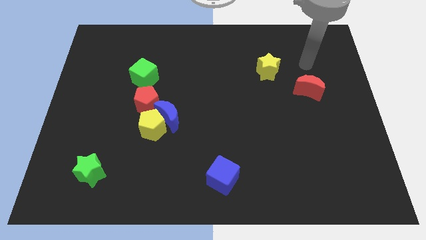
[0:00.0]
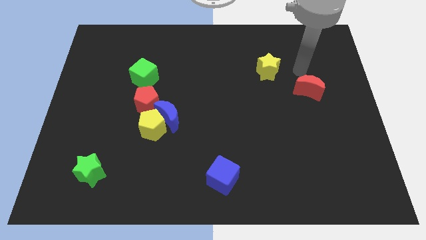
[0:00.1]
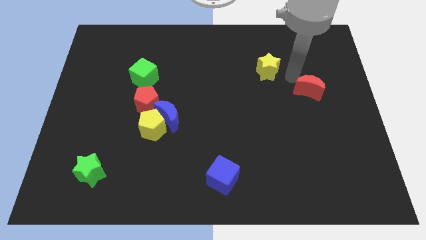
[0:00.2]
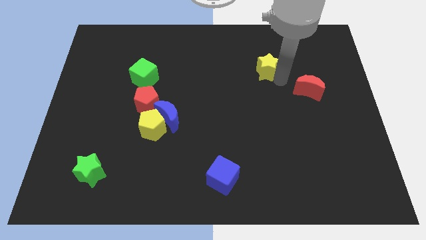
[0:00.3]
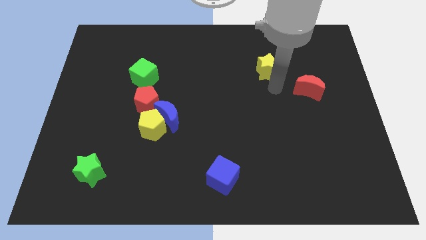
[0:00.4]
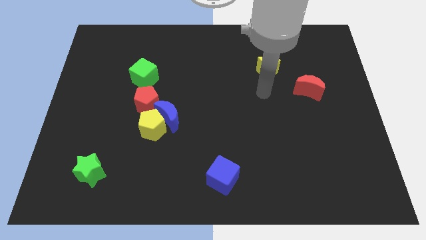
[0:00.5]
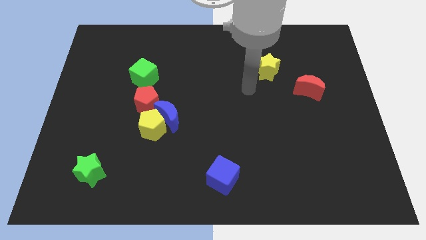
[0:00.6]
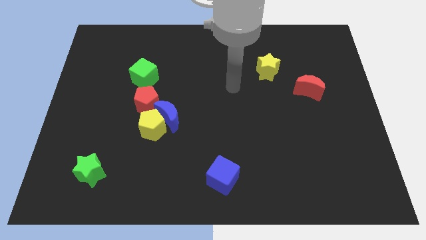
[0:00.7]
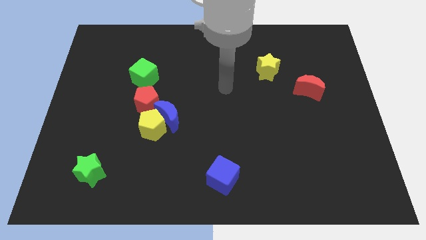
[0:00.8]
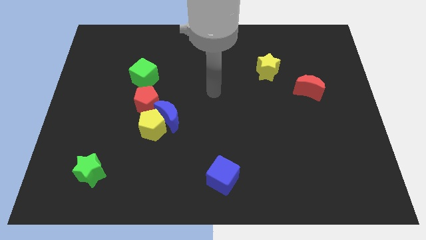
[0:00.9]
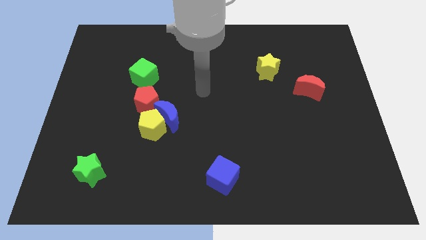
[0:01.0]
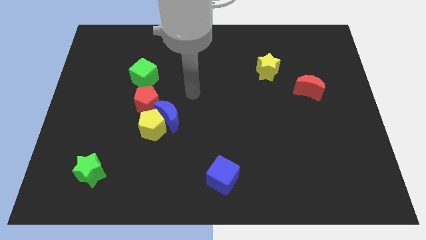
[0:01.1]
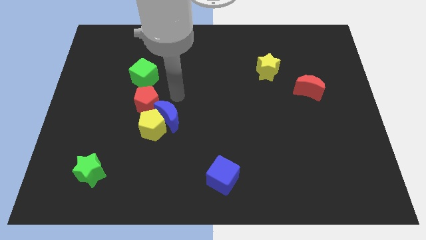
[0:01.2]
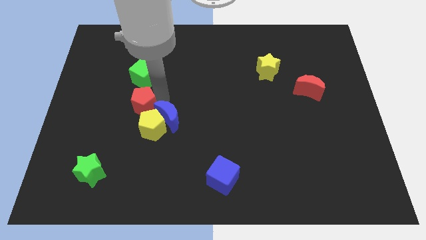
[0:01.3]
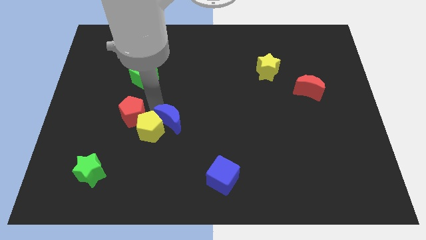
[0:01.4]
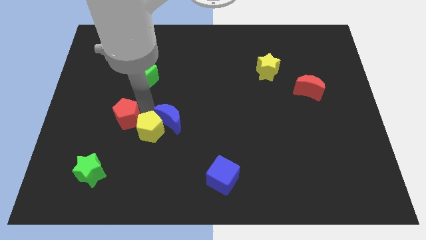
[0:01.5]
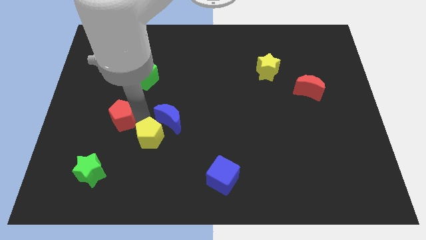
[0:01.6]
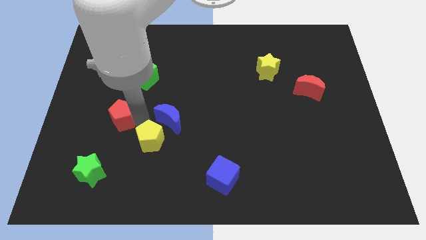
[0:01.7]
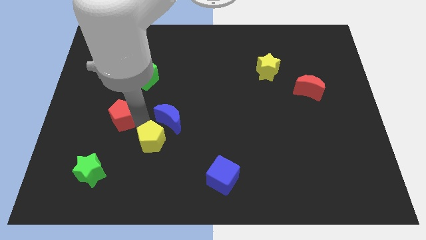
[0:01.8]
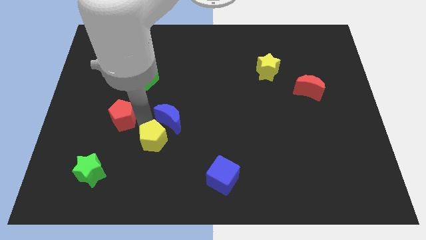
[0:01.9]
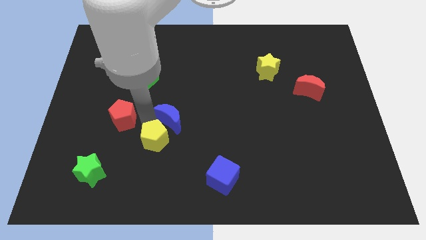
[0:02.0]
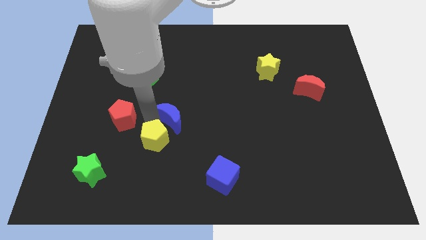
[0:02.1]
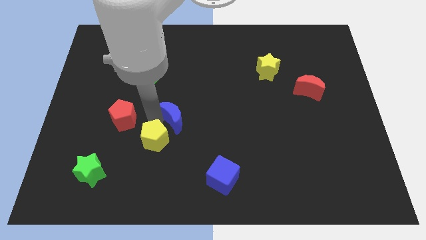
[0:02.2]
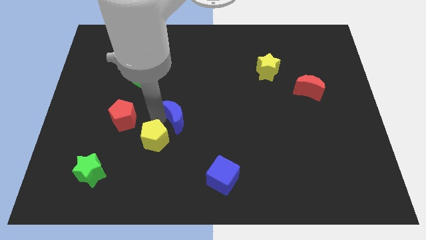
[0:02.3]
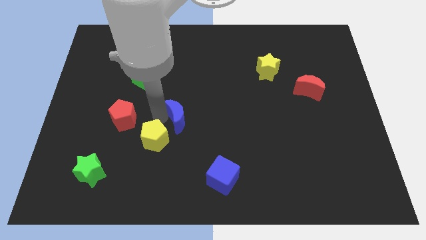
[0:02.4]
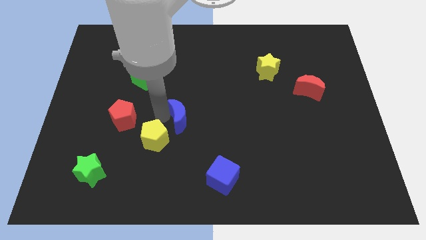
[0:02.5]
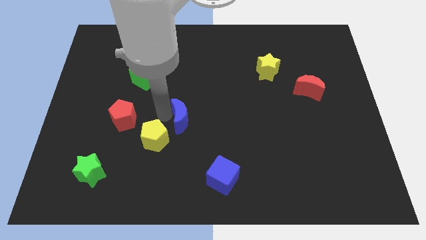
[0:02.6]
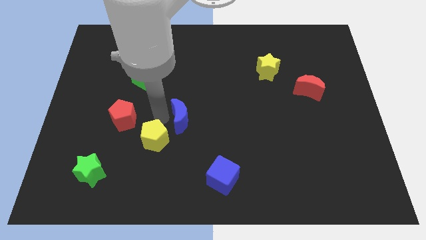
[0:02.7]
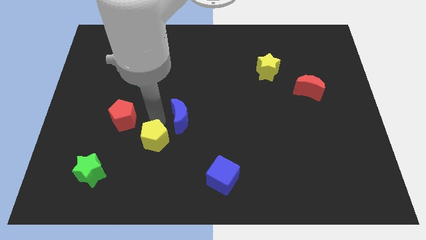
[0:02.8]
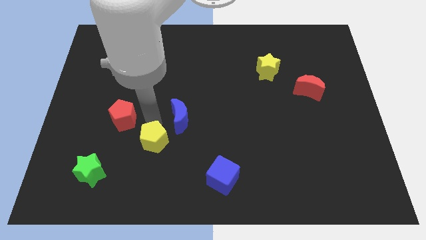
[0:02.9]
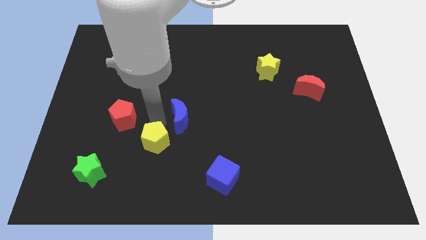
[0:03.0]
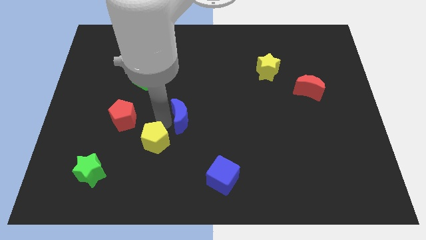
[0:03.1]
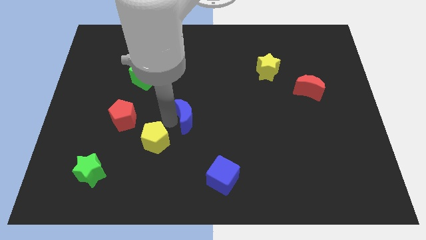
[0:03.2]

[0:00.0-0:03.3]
pull the blue moon apart from the yellow pentagon and red pentagon

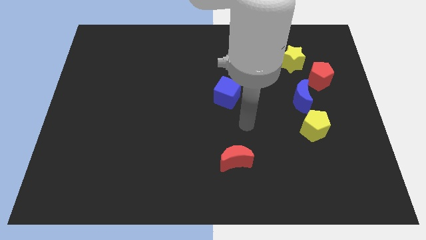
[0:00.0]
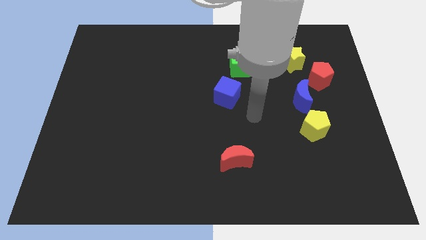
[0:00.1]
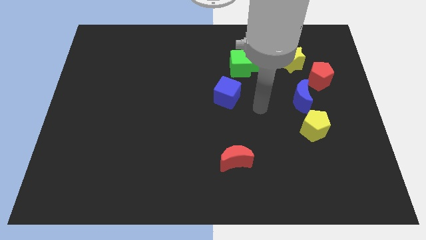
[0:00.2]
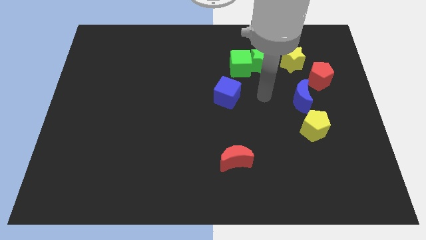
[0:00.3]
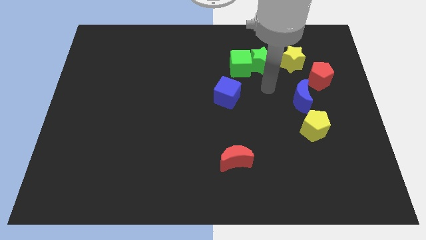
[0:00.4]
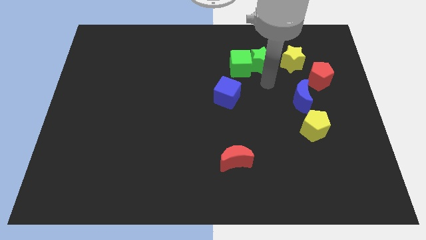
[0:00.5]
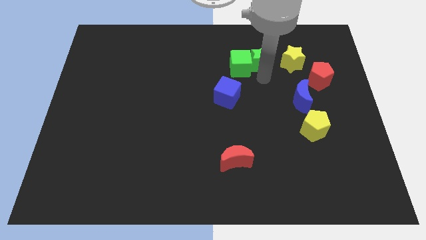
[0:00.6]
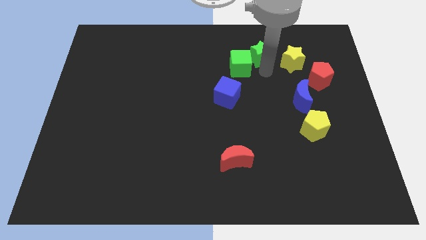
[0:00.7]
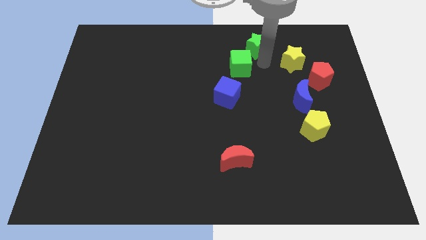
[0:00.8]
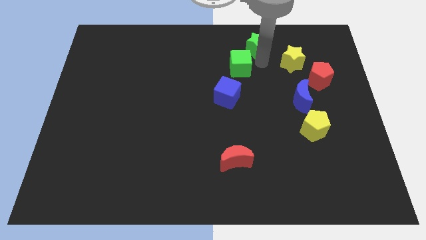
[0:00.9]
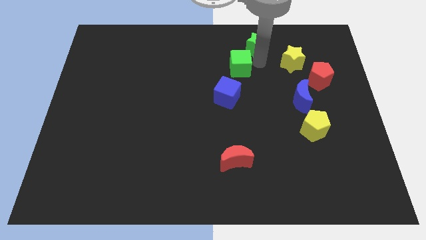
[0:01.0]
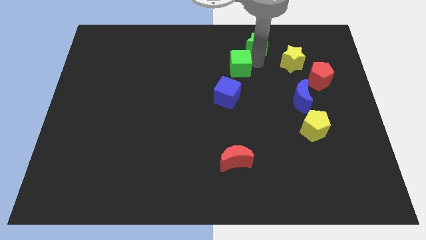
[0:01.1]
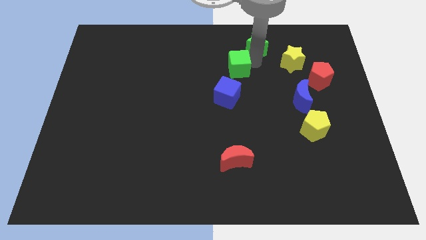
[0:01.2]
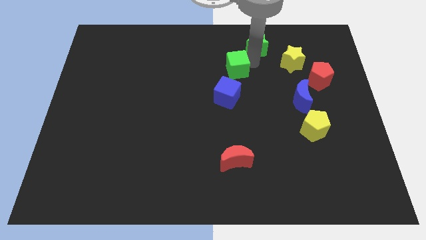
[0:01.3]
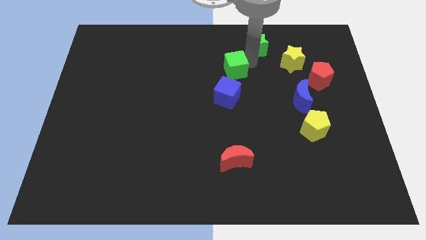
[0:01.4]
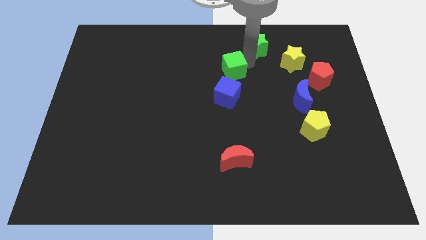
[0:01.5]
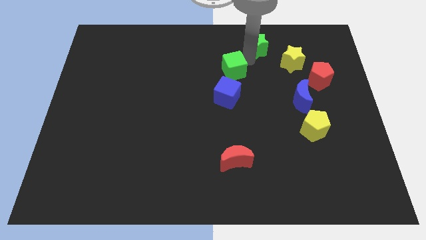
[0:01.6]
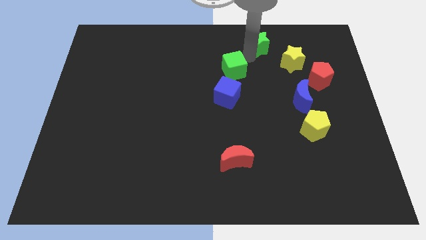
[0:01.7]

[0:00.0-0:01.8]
move the green cube away from the green star

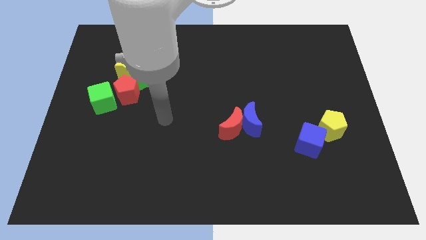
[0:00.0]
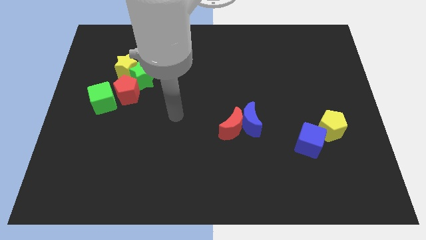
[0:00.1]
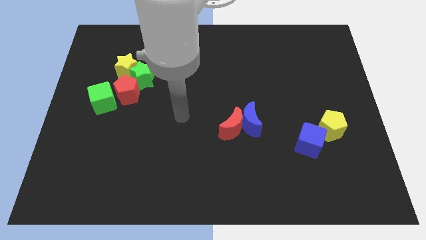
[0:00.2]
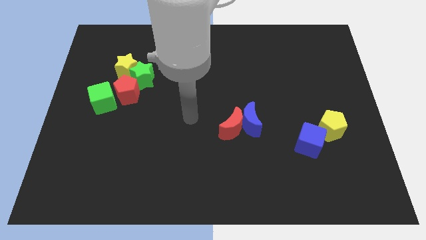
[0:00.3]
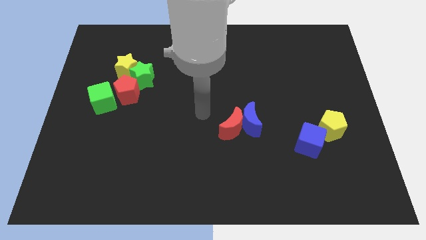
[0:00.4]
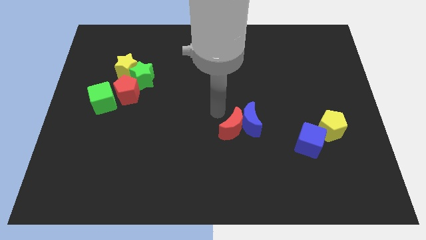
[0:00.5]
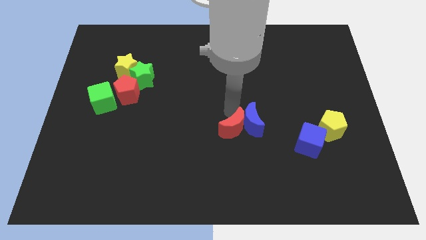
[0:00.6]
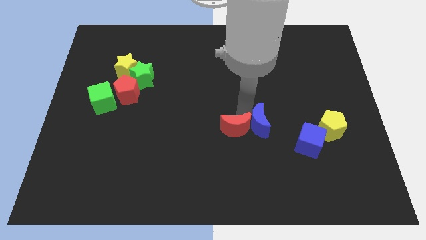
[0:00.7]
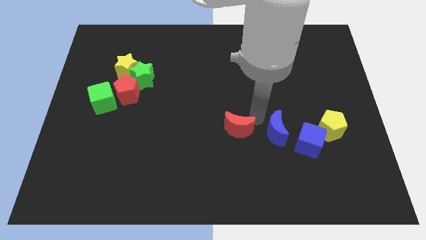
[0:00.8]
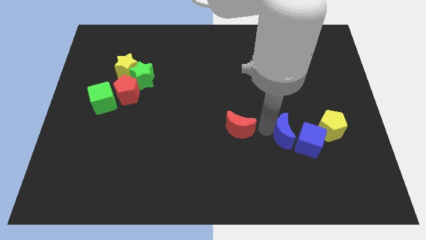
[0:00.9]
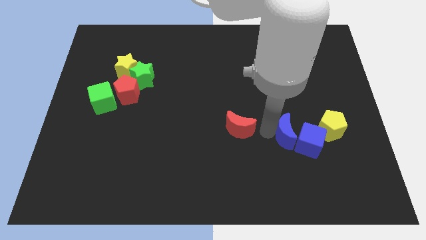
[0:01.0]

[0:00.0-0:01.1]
separate the red moon from the blue moon

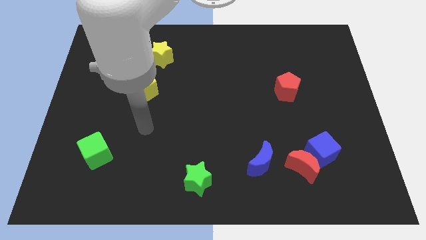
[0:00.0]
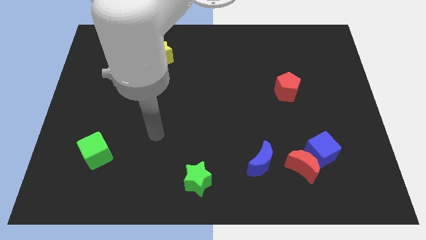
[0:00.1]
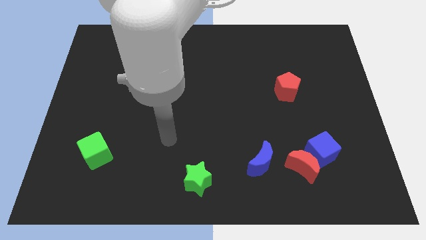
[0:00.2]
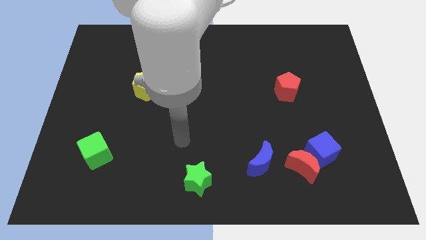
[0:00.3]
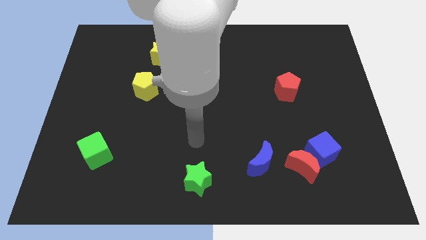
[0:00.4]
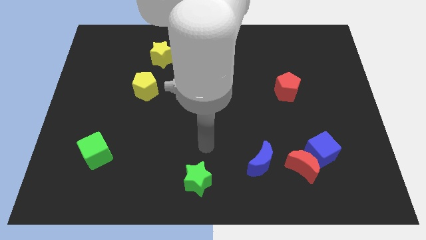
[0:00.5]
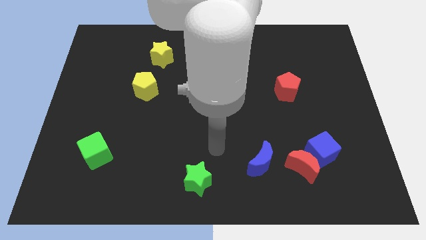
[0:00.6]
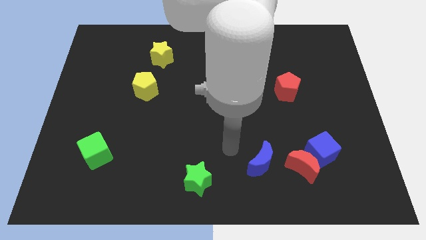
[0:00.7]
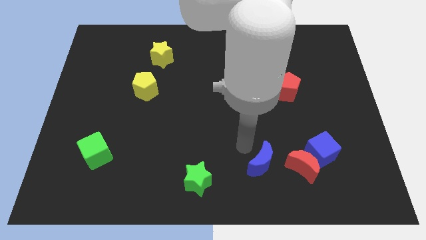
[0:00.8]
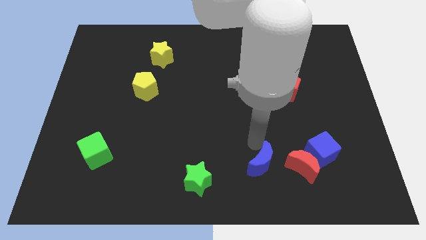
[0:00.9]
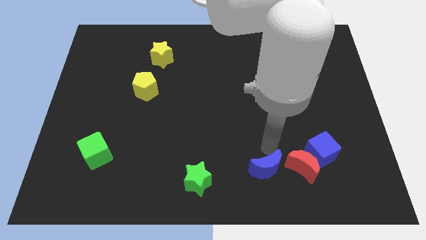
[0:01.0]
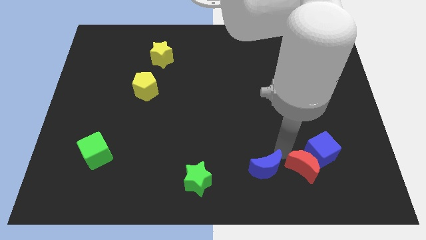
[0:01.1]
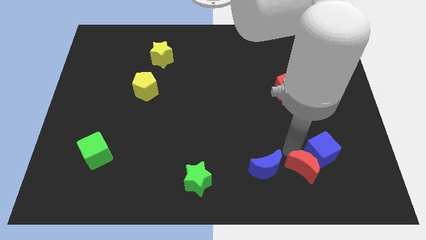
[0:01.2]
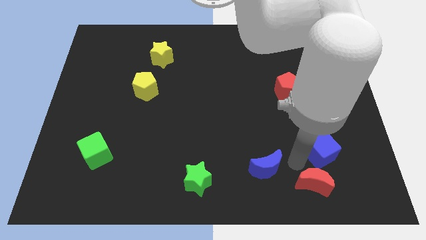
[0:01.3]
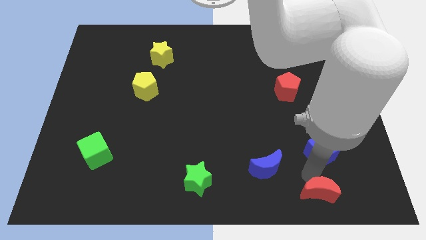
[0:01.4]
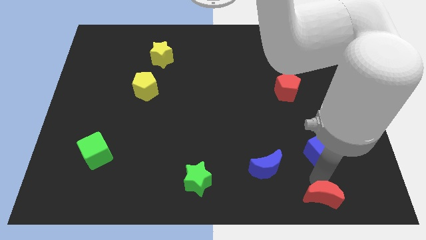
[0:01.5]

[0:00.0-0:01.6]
pull the blue cube apart from the red moon

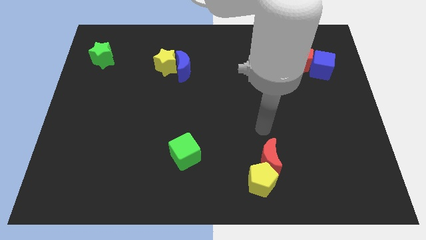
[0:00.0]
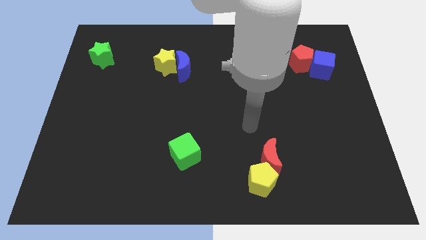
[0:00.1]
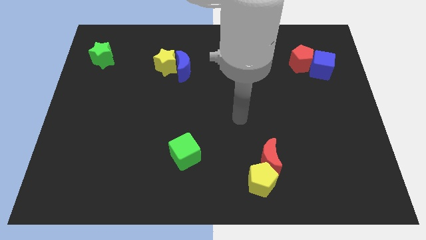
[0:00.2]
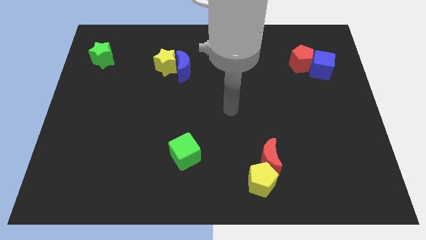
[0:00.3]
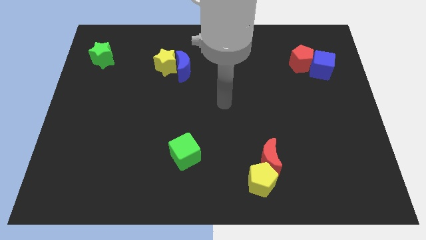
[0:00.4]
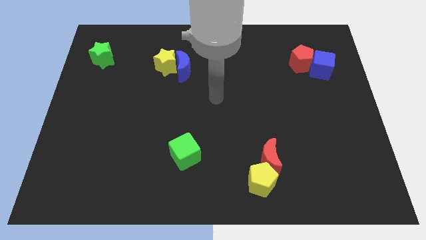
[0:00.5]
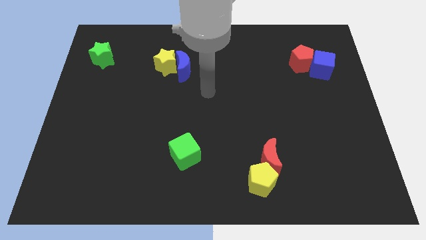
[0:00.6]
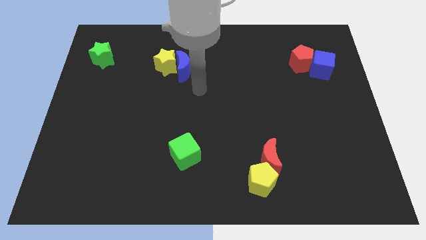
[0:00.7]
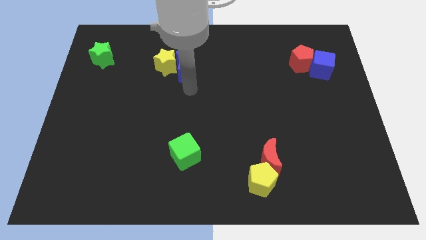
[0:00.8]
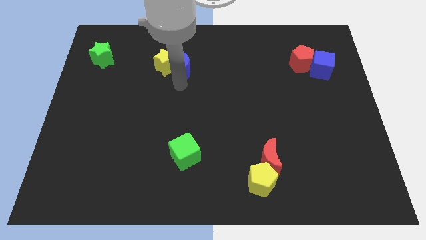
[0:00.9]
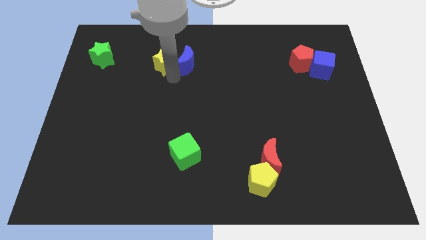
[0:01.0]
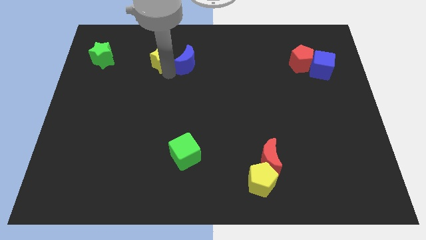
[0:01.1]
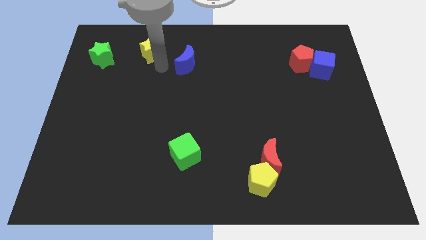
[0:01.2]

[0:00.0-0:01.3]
pull the blue moon apart from the yellow star
